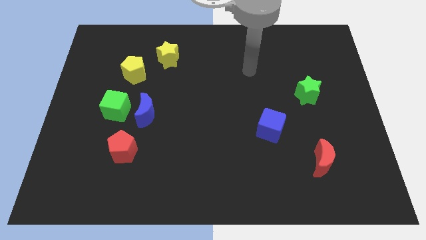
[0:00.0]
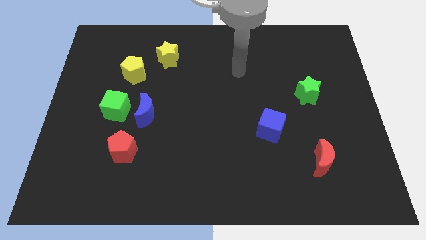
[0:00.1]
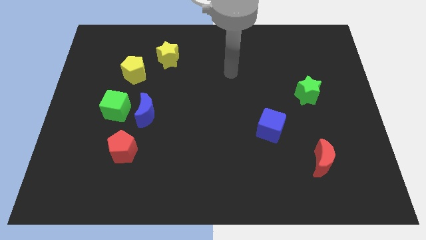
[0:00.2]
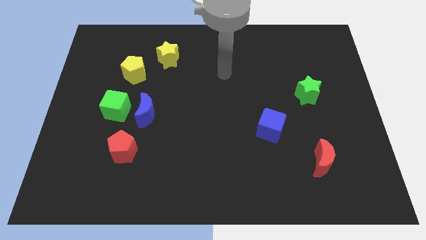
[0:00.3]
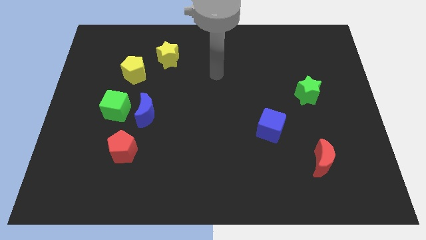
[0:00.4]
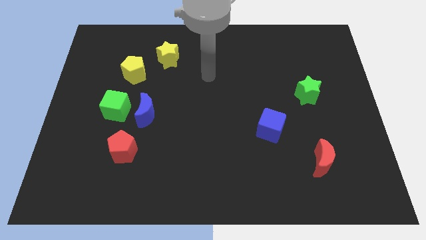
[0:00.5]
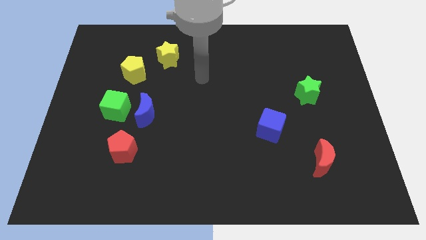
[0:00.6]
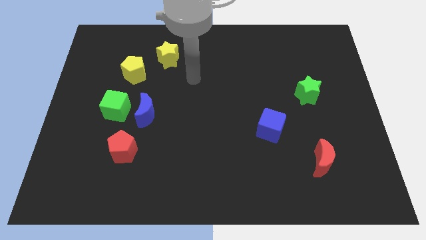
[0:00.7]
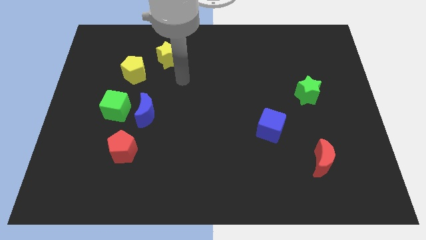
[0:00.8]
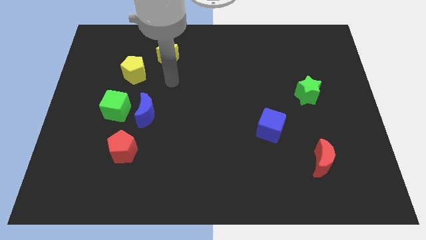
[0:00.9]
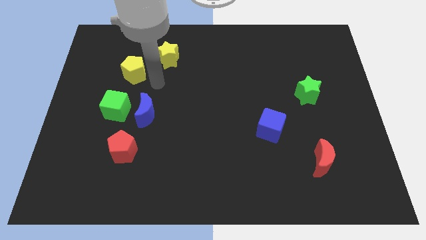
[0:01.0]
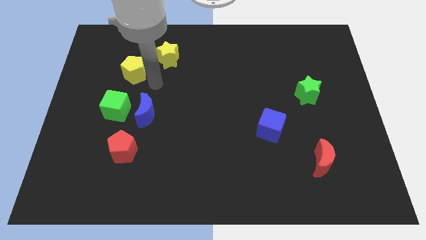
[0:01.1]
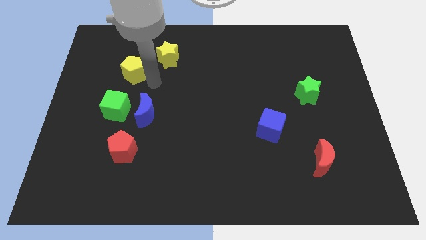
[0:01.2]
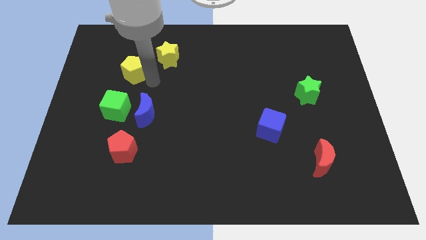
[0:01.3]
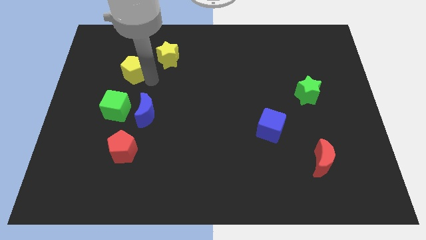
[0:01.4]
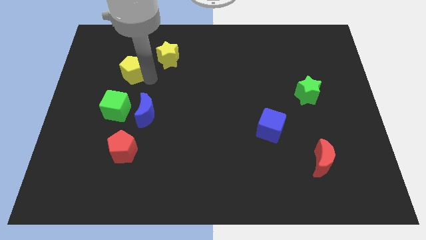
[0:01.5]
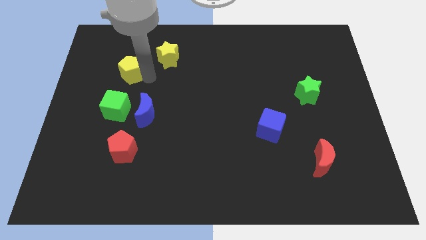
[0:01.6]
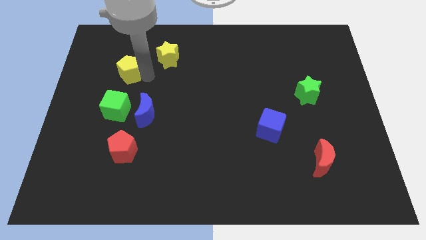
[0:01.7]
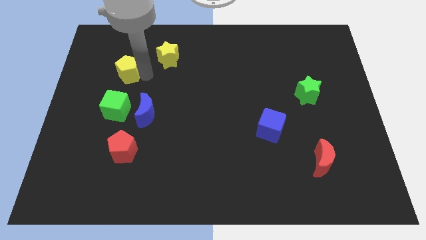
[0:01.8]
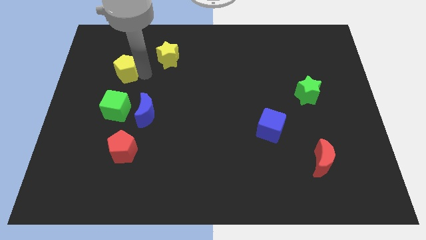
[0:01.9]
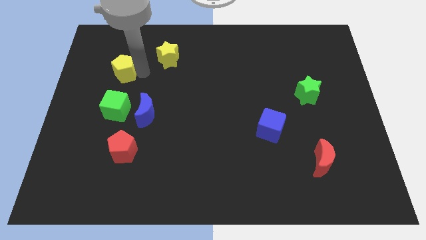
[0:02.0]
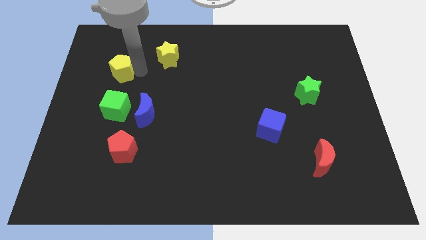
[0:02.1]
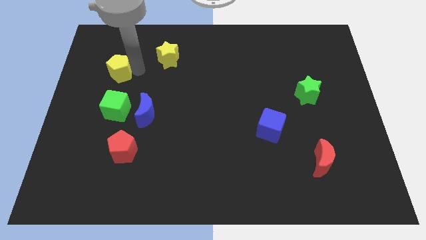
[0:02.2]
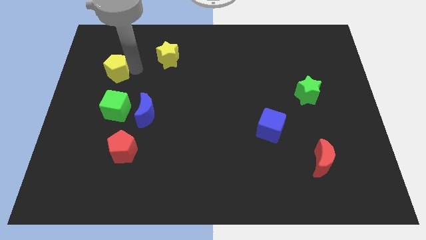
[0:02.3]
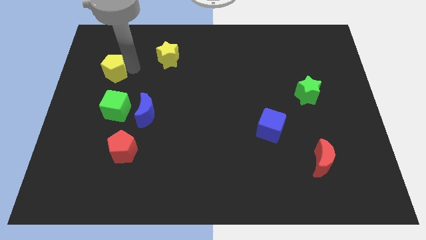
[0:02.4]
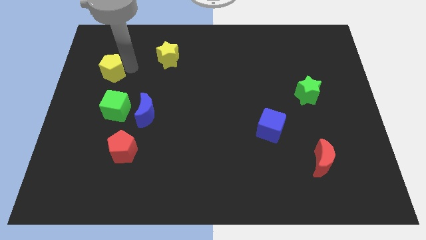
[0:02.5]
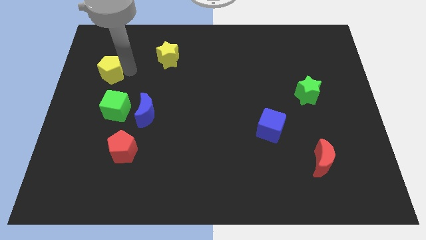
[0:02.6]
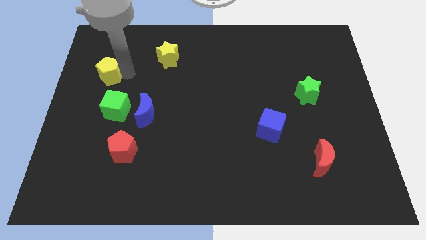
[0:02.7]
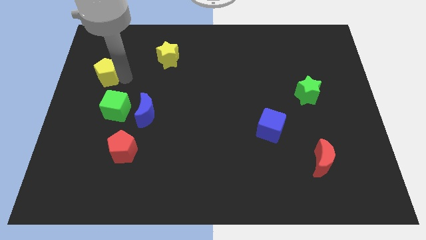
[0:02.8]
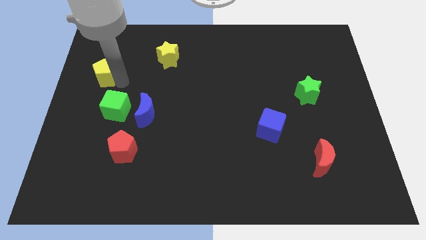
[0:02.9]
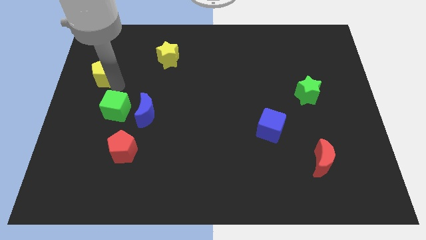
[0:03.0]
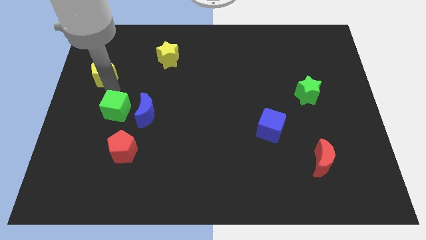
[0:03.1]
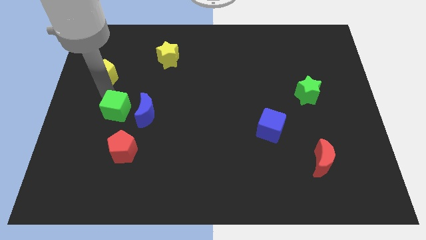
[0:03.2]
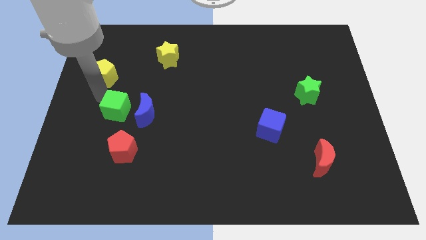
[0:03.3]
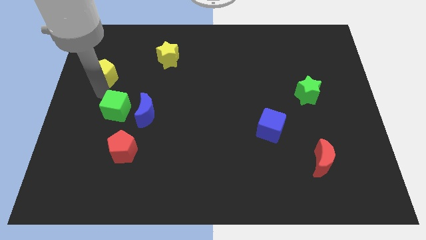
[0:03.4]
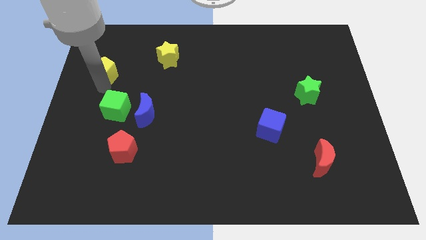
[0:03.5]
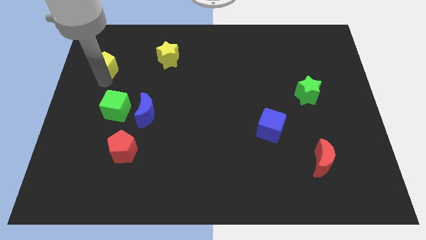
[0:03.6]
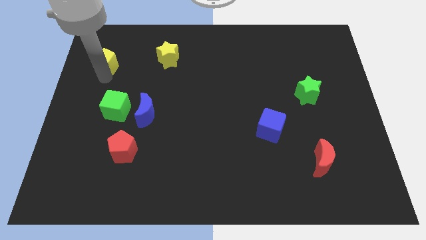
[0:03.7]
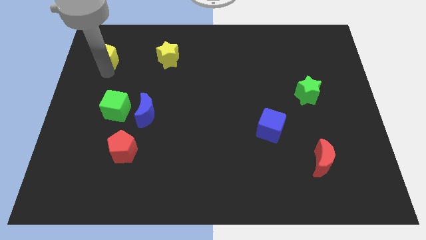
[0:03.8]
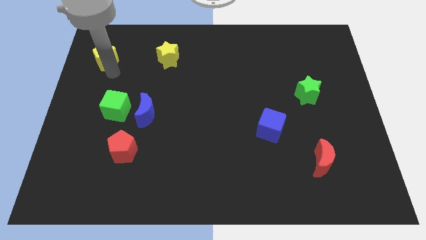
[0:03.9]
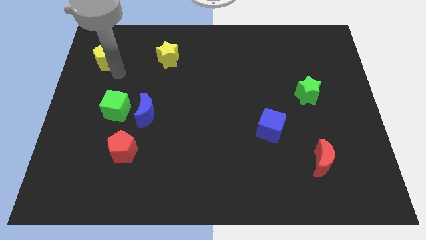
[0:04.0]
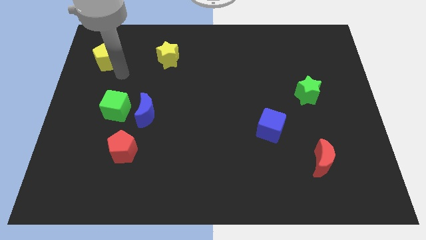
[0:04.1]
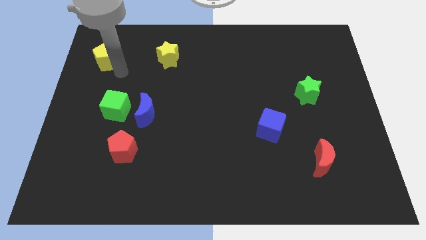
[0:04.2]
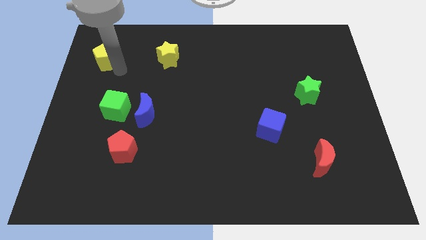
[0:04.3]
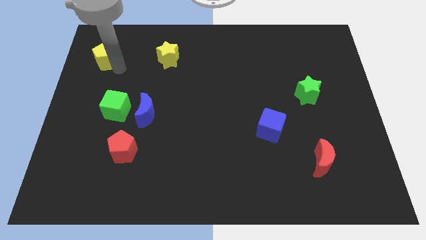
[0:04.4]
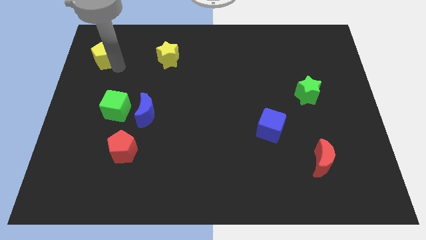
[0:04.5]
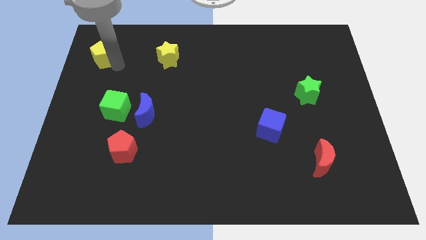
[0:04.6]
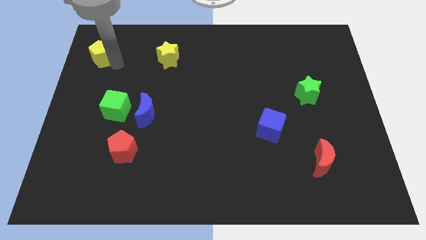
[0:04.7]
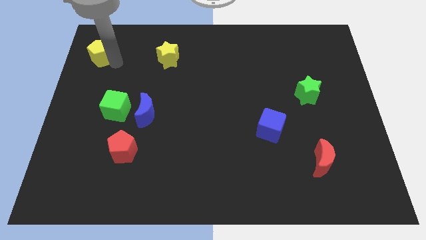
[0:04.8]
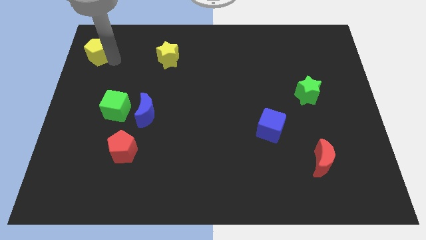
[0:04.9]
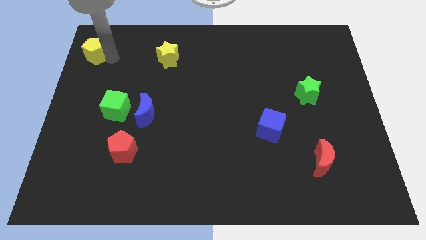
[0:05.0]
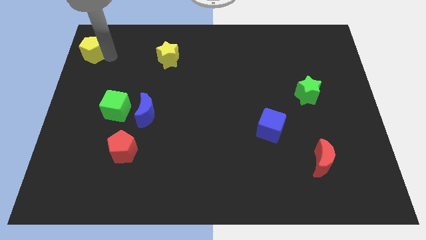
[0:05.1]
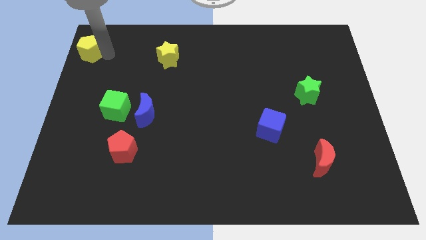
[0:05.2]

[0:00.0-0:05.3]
slide the yellow pentagon to the top left corner

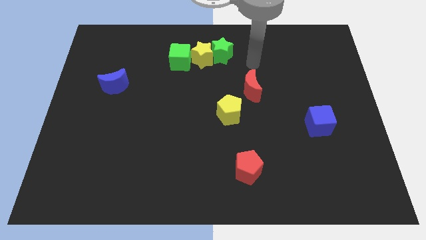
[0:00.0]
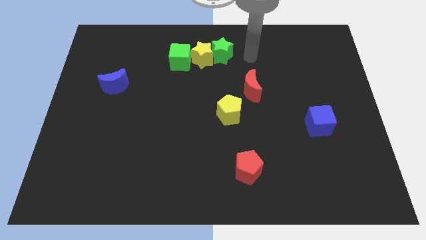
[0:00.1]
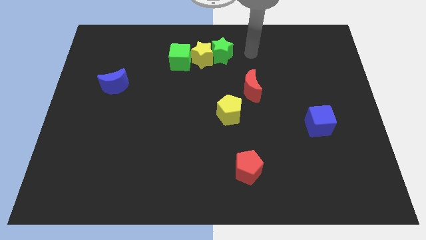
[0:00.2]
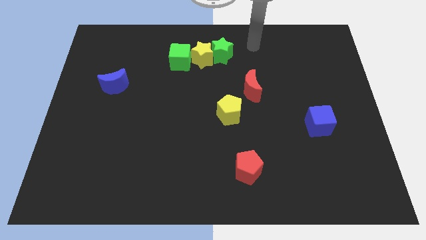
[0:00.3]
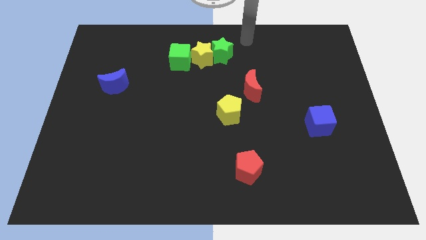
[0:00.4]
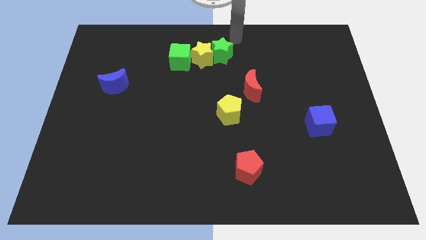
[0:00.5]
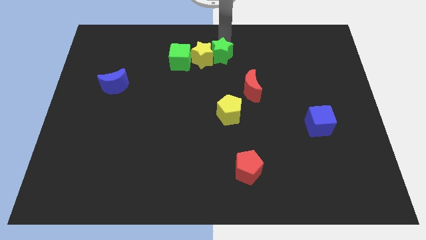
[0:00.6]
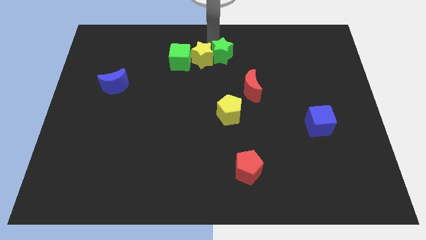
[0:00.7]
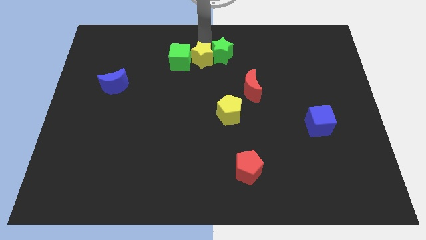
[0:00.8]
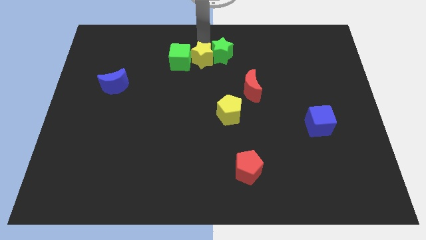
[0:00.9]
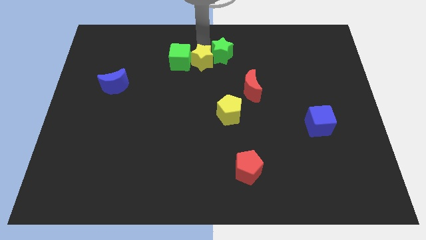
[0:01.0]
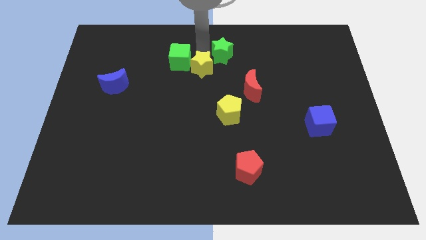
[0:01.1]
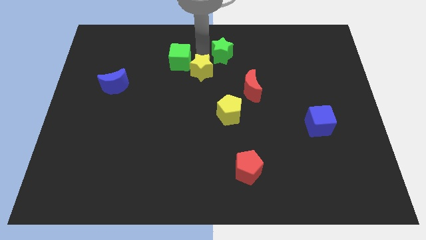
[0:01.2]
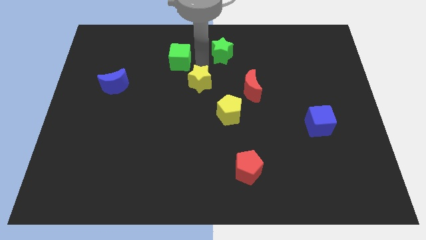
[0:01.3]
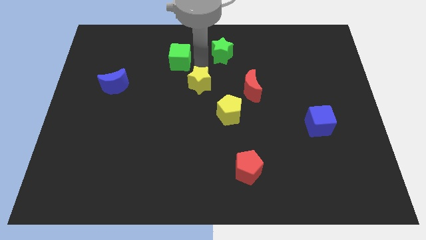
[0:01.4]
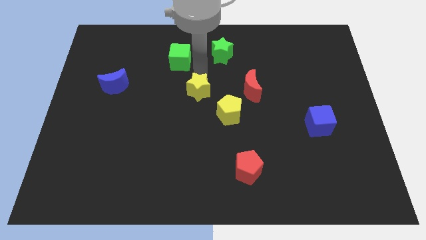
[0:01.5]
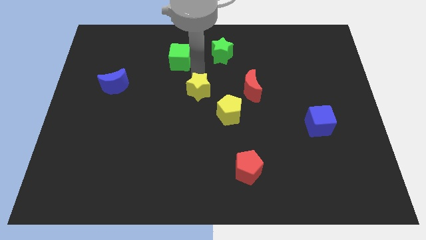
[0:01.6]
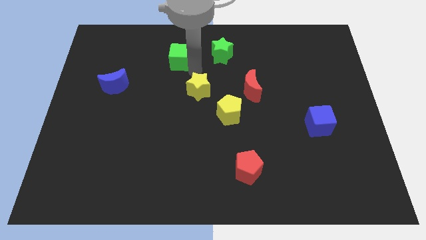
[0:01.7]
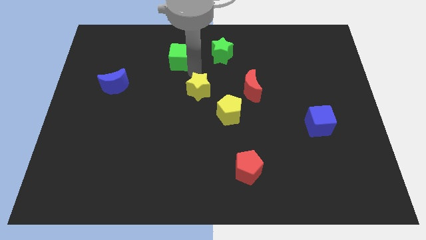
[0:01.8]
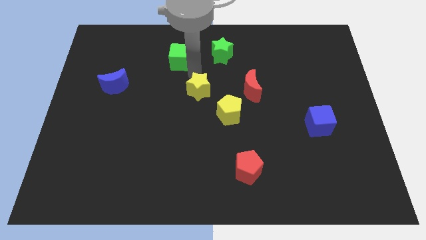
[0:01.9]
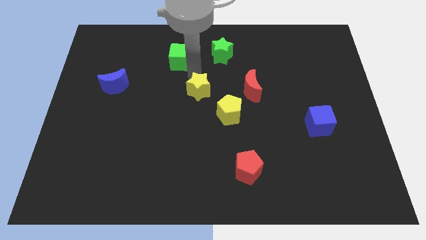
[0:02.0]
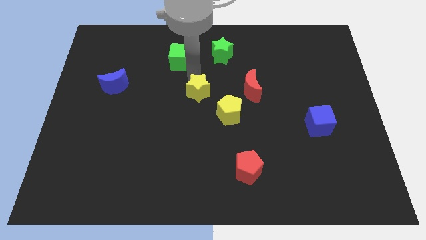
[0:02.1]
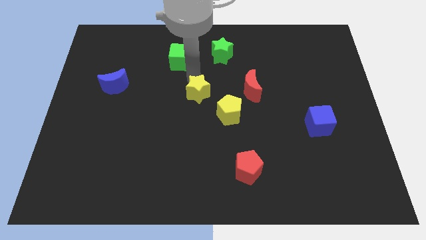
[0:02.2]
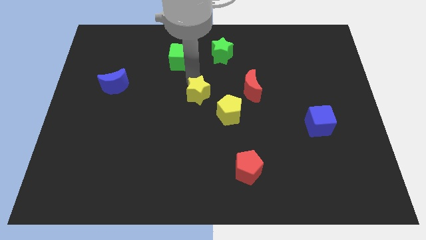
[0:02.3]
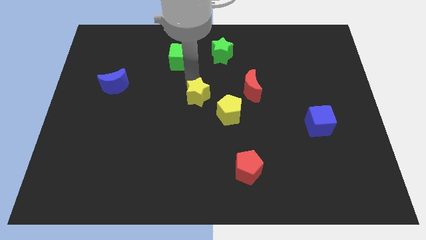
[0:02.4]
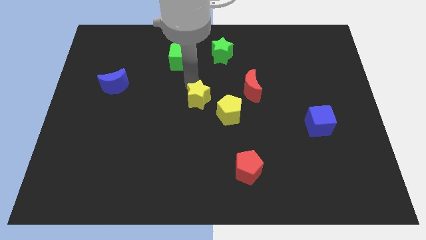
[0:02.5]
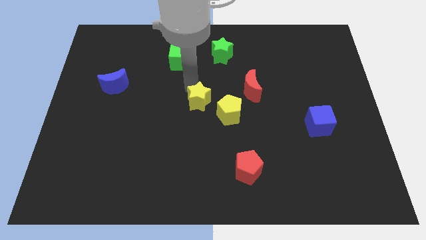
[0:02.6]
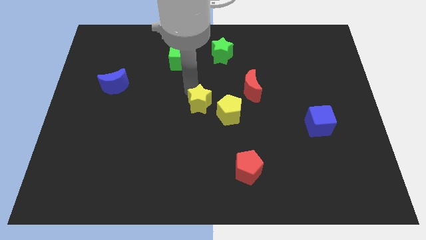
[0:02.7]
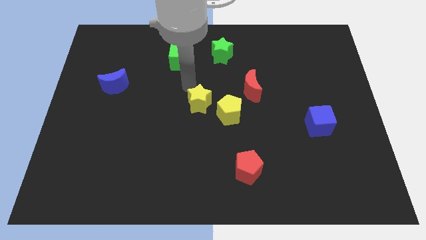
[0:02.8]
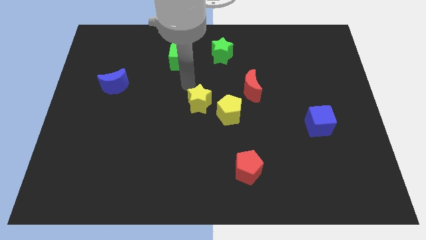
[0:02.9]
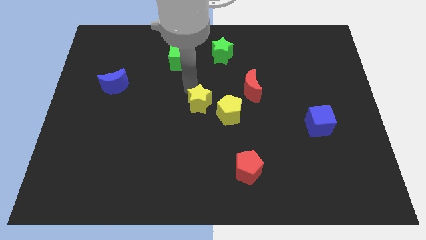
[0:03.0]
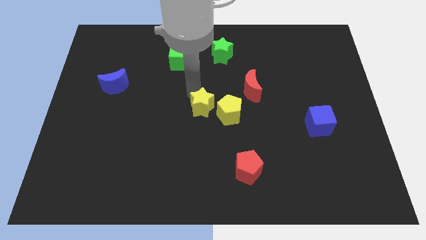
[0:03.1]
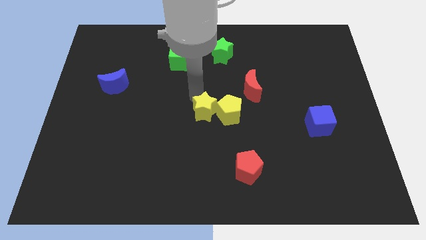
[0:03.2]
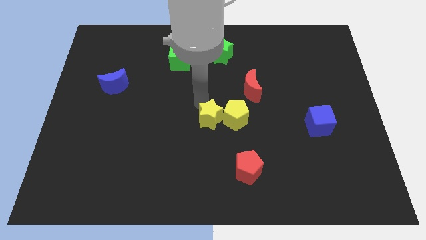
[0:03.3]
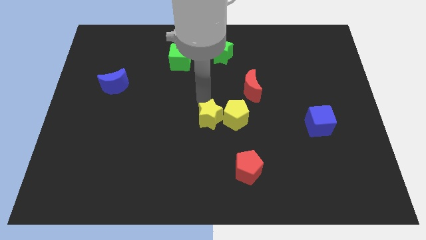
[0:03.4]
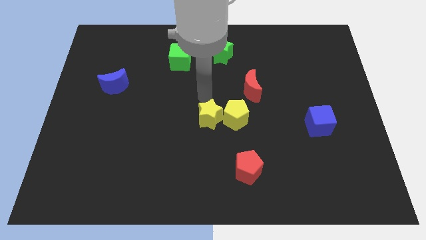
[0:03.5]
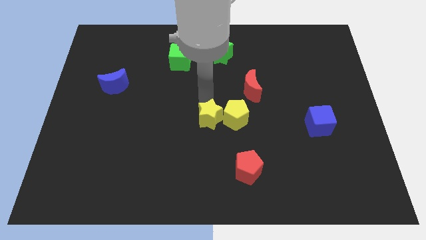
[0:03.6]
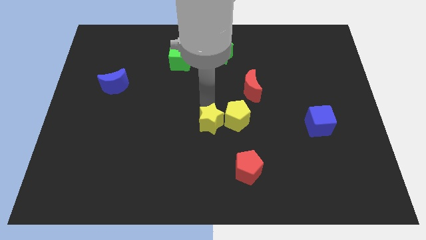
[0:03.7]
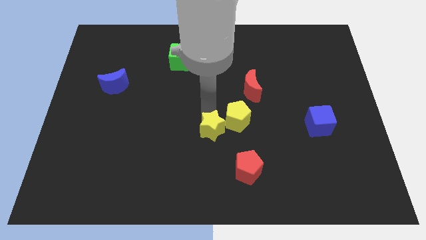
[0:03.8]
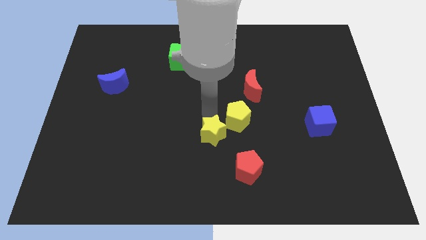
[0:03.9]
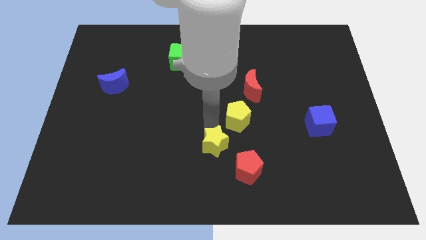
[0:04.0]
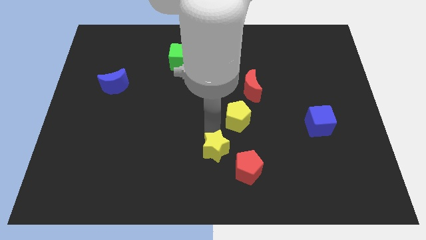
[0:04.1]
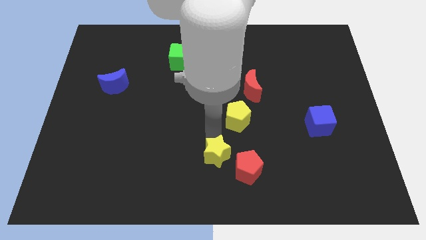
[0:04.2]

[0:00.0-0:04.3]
slide the yellow star to the bottom side
